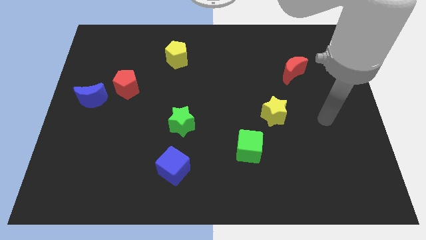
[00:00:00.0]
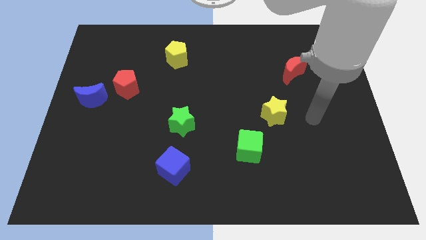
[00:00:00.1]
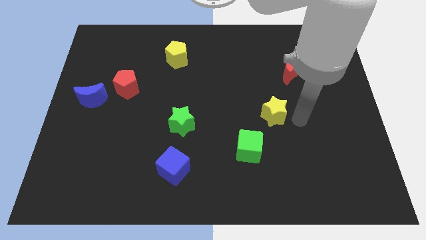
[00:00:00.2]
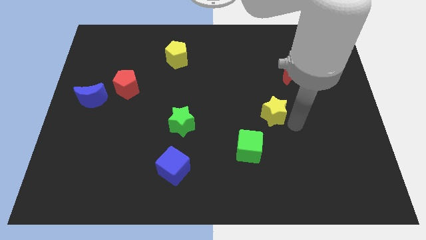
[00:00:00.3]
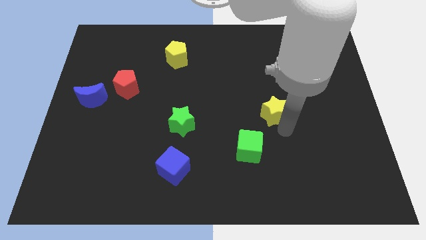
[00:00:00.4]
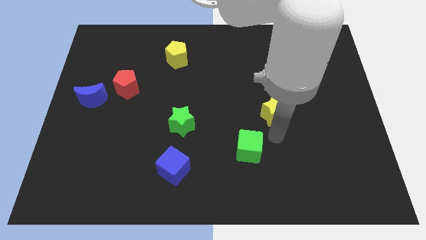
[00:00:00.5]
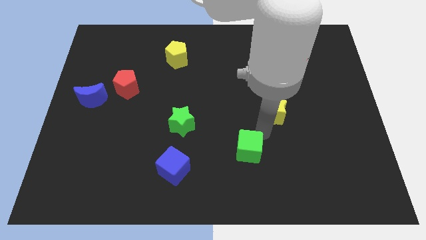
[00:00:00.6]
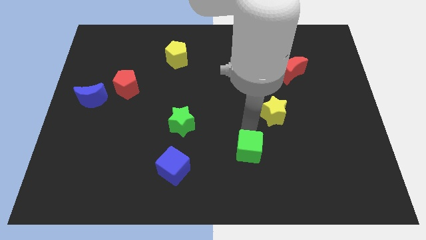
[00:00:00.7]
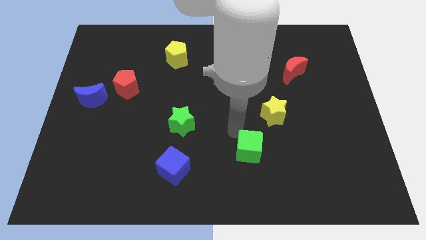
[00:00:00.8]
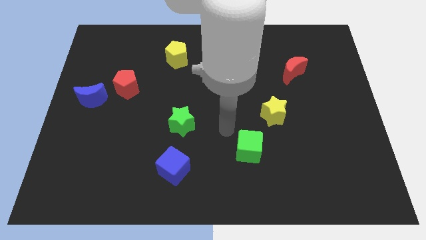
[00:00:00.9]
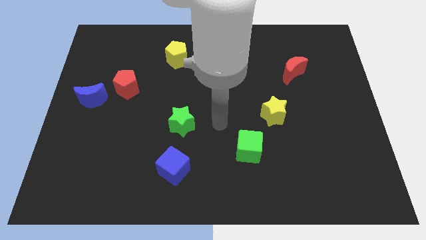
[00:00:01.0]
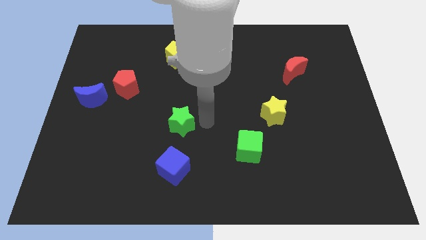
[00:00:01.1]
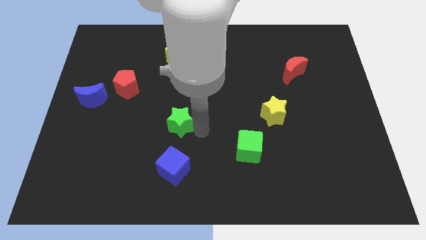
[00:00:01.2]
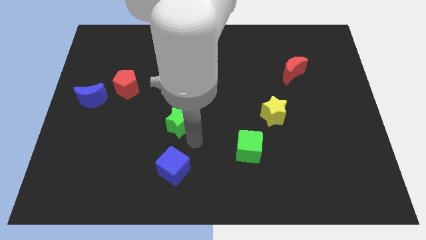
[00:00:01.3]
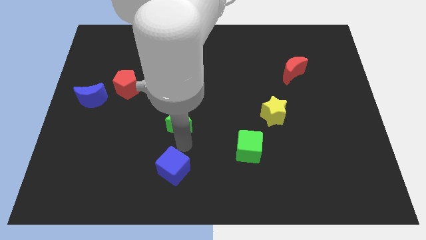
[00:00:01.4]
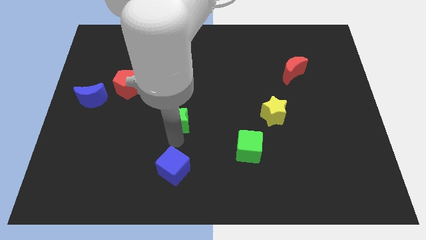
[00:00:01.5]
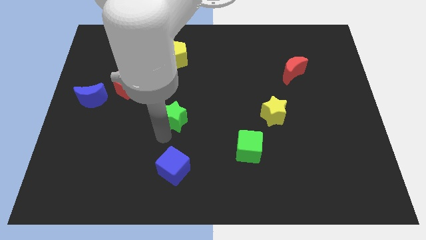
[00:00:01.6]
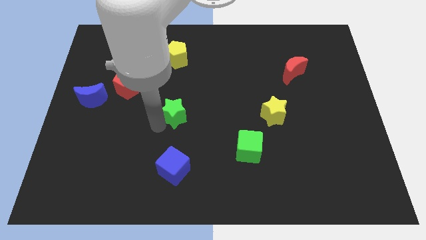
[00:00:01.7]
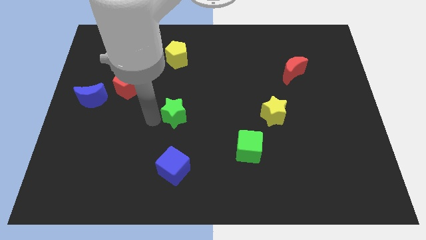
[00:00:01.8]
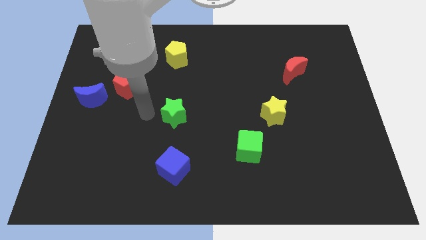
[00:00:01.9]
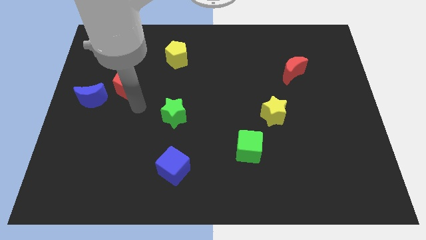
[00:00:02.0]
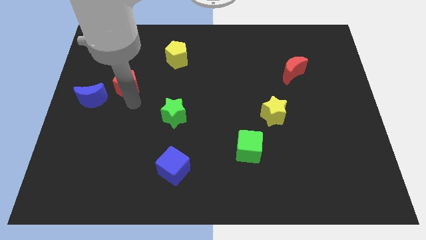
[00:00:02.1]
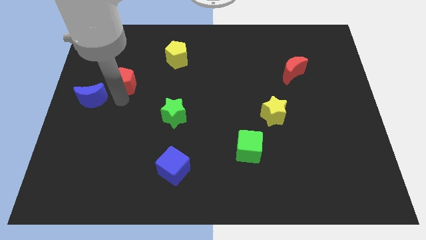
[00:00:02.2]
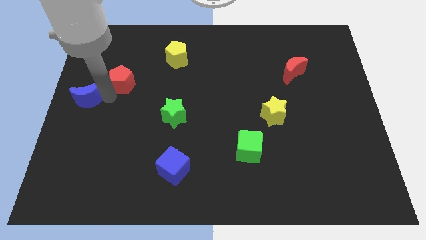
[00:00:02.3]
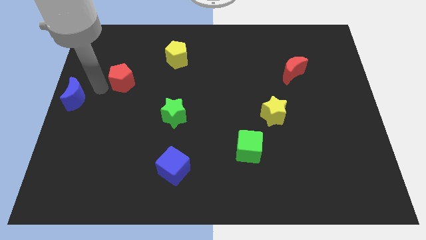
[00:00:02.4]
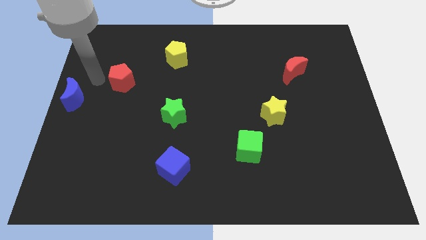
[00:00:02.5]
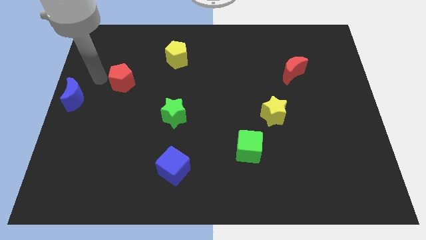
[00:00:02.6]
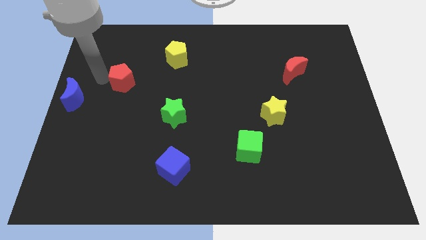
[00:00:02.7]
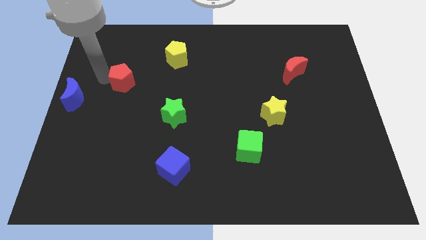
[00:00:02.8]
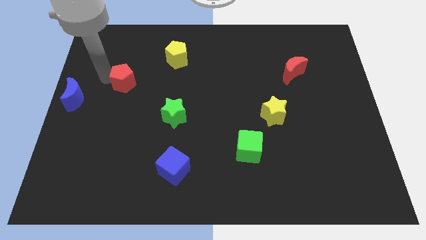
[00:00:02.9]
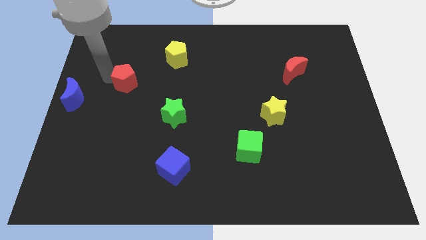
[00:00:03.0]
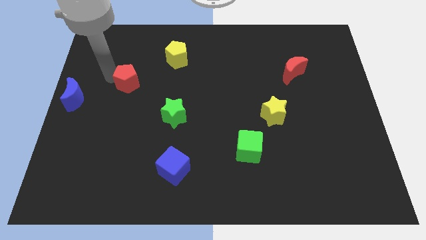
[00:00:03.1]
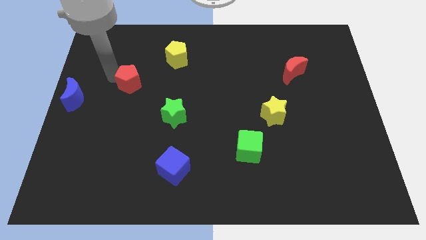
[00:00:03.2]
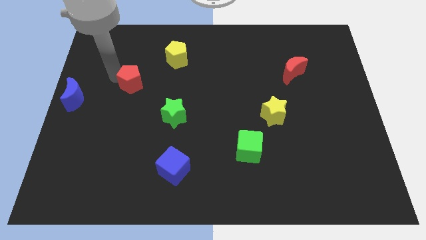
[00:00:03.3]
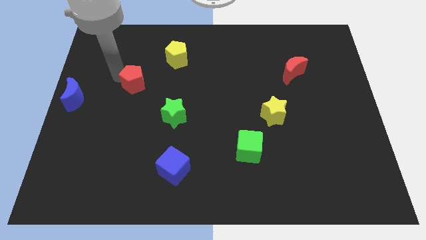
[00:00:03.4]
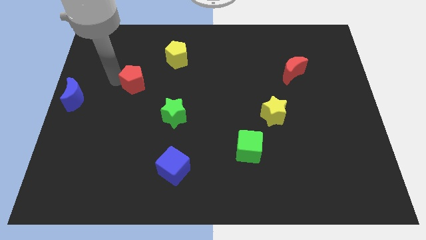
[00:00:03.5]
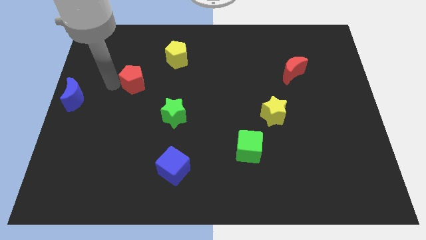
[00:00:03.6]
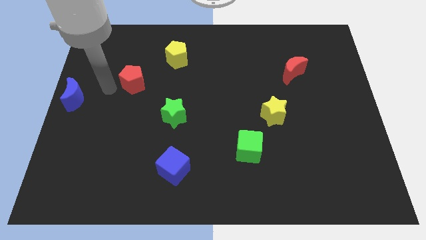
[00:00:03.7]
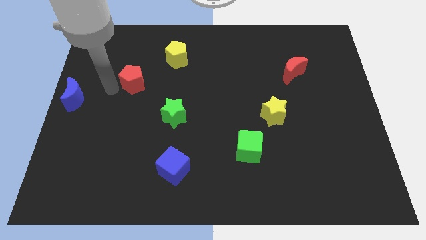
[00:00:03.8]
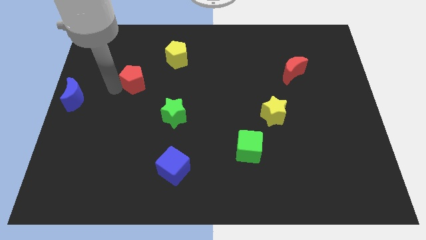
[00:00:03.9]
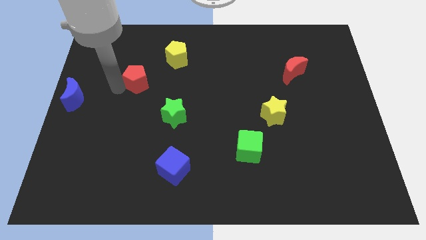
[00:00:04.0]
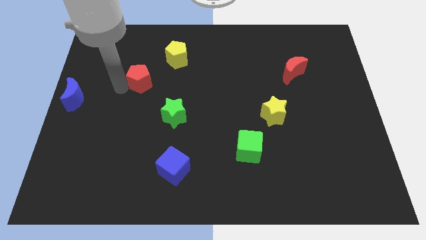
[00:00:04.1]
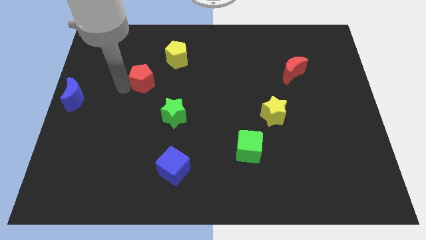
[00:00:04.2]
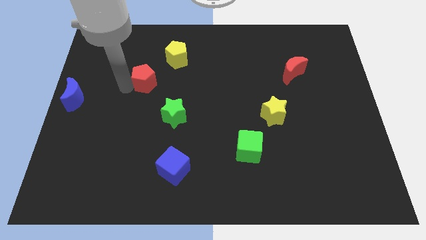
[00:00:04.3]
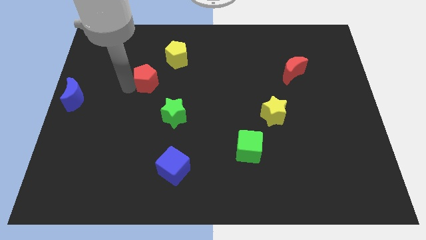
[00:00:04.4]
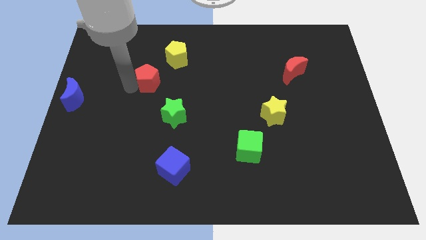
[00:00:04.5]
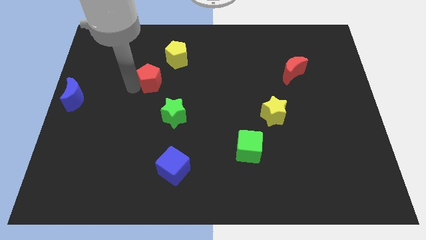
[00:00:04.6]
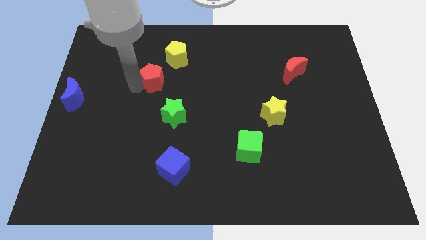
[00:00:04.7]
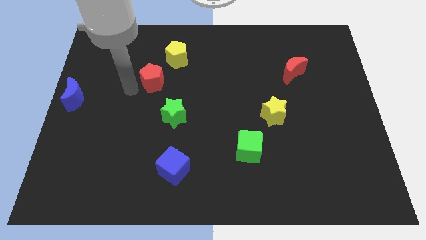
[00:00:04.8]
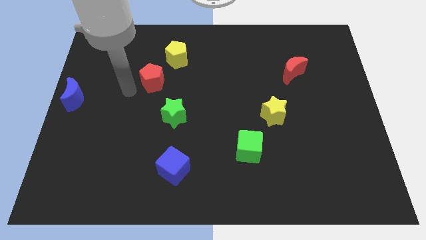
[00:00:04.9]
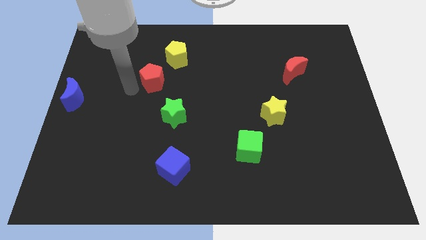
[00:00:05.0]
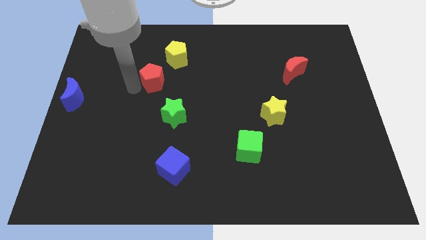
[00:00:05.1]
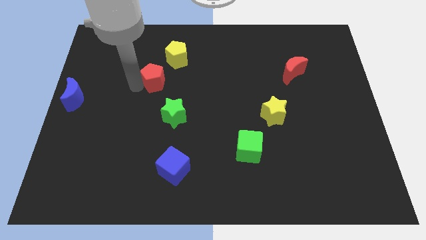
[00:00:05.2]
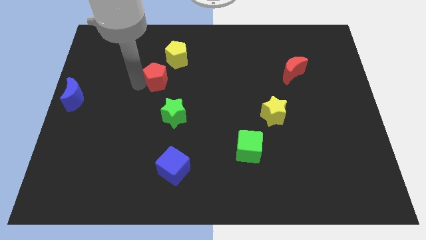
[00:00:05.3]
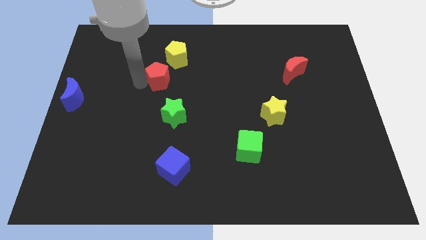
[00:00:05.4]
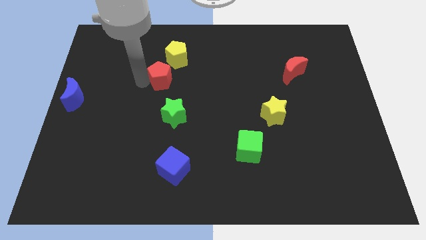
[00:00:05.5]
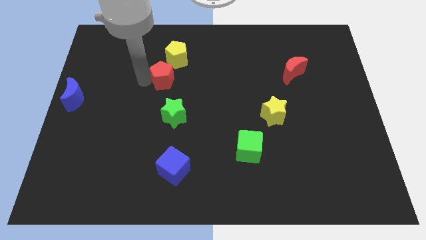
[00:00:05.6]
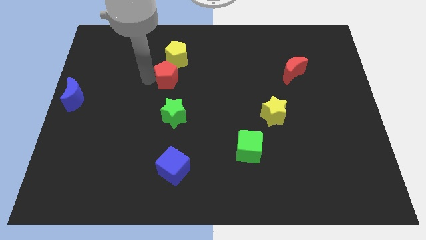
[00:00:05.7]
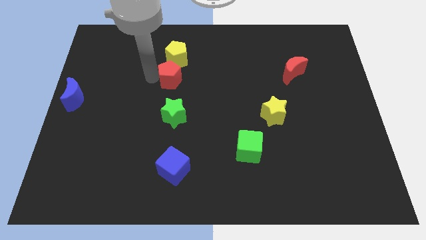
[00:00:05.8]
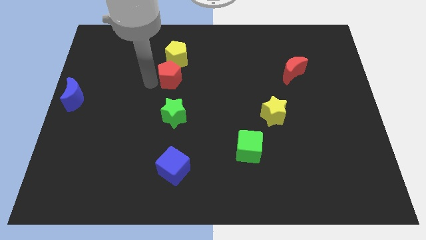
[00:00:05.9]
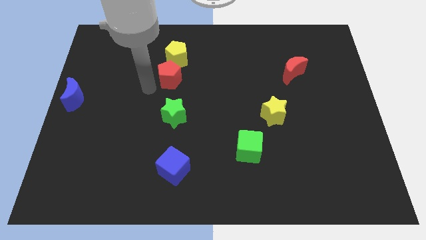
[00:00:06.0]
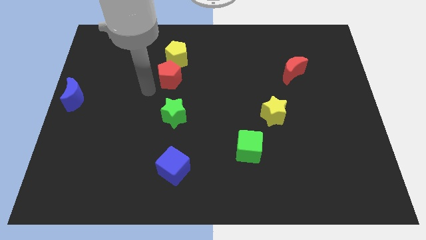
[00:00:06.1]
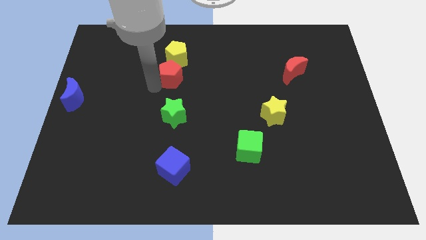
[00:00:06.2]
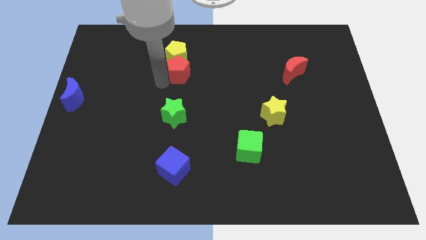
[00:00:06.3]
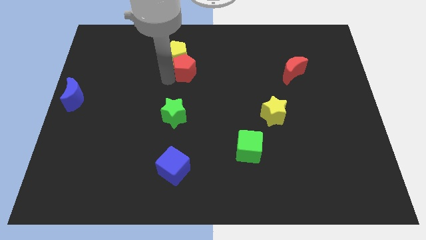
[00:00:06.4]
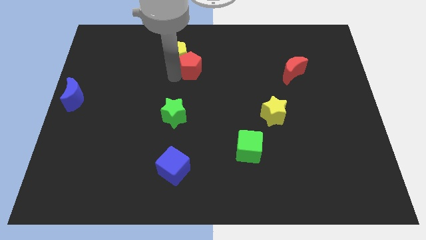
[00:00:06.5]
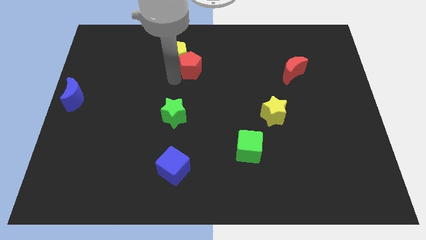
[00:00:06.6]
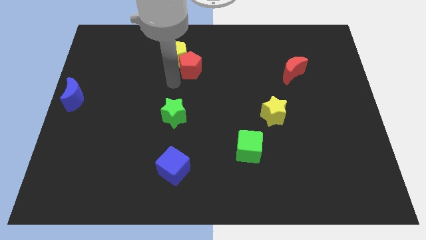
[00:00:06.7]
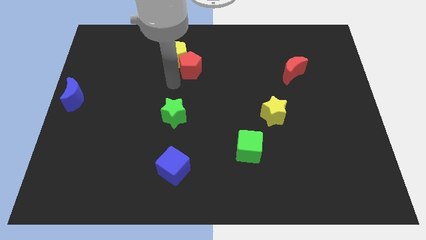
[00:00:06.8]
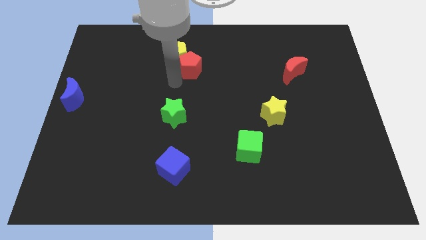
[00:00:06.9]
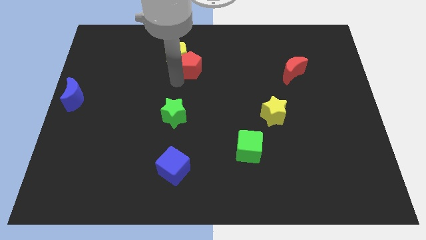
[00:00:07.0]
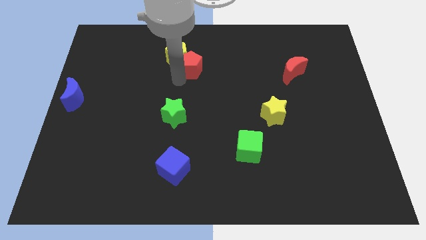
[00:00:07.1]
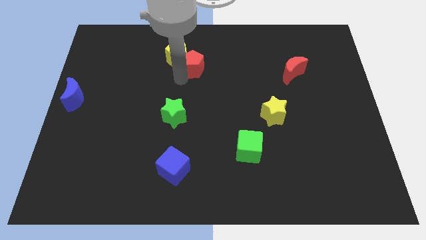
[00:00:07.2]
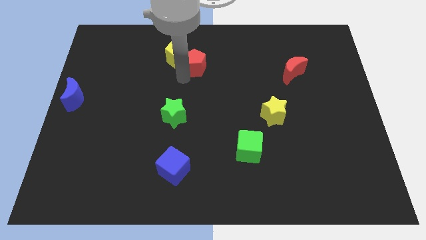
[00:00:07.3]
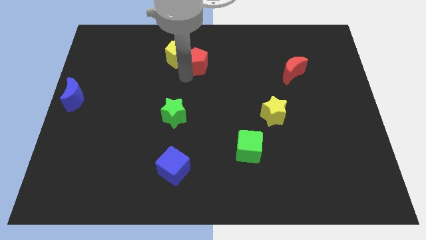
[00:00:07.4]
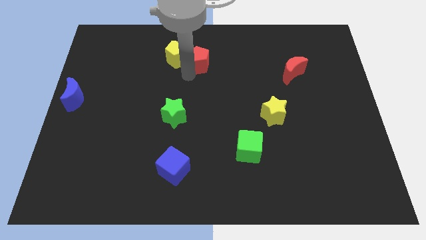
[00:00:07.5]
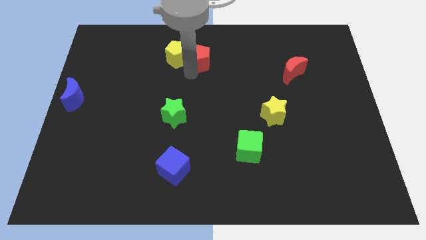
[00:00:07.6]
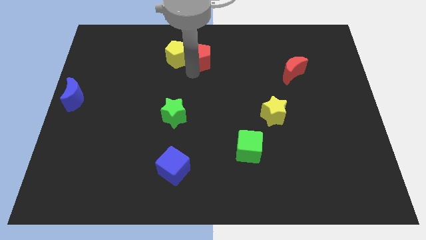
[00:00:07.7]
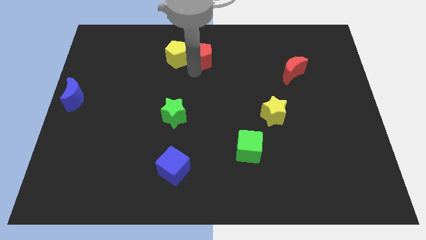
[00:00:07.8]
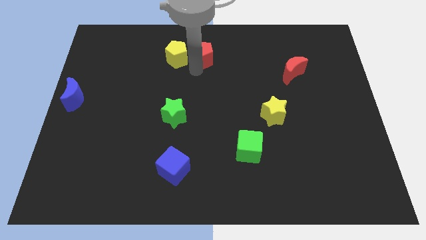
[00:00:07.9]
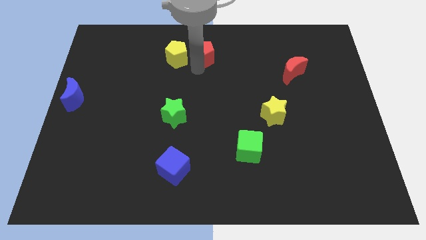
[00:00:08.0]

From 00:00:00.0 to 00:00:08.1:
push the red pentagon to the towards your base
